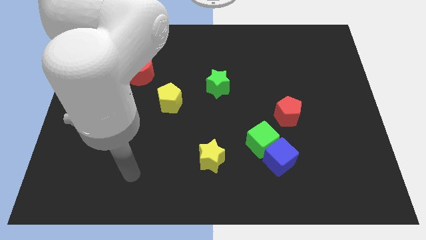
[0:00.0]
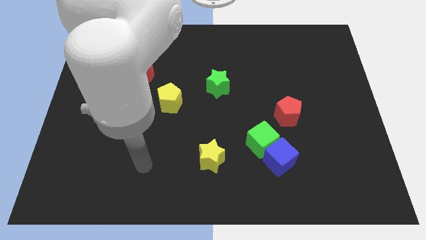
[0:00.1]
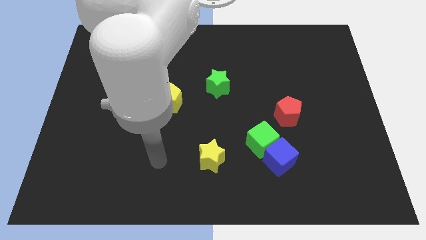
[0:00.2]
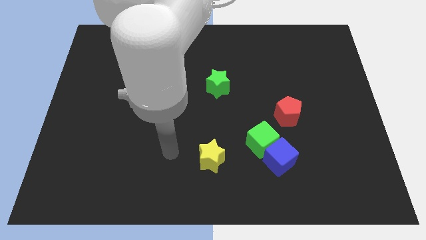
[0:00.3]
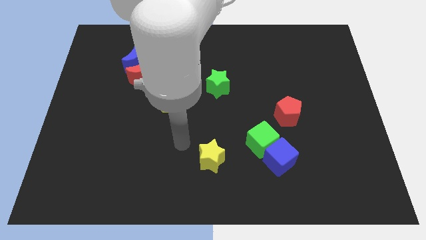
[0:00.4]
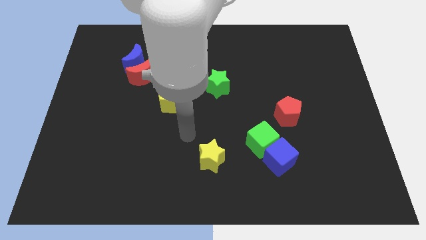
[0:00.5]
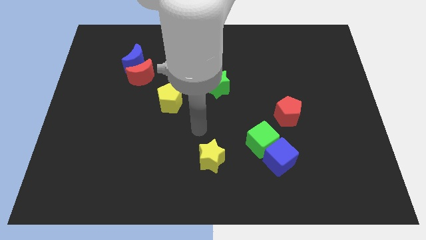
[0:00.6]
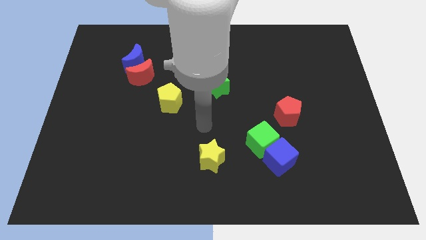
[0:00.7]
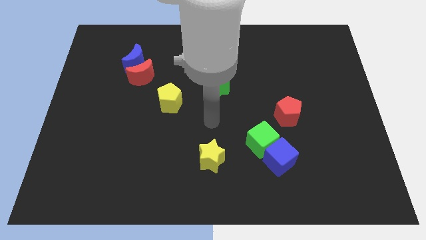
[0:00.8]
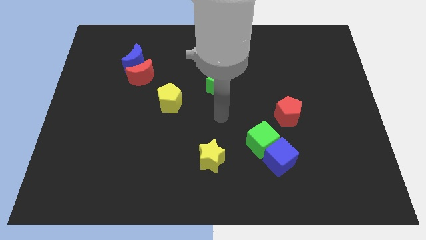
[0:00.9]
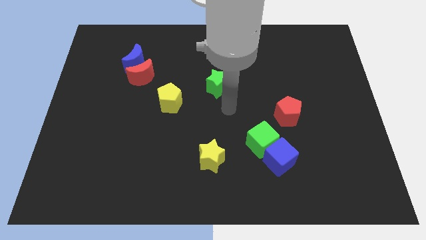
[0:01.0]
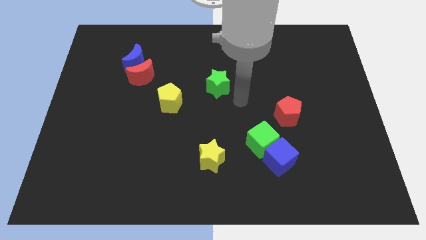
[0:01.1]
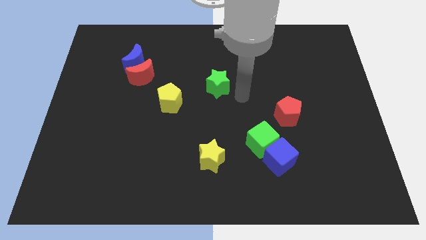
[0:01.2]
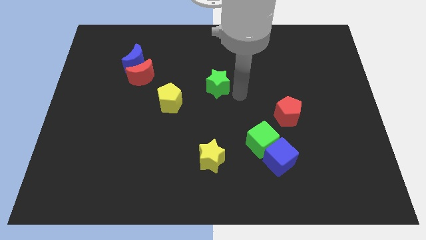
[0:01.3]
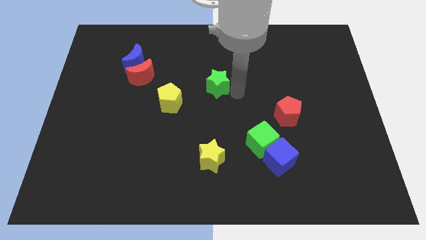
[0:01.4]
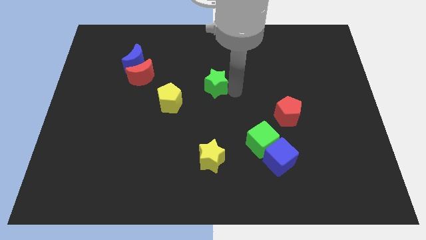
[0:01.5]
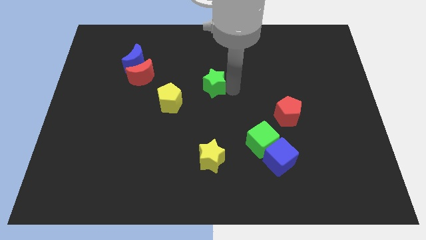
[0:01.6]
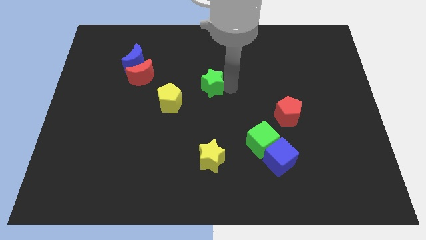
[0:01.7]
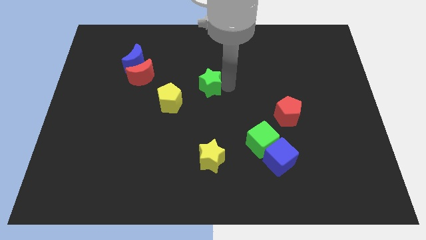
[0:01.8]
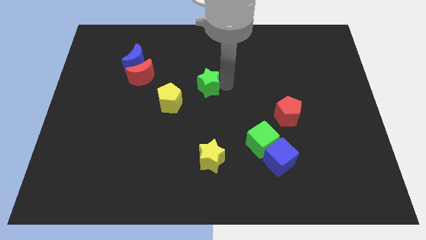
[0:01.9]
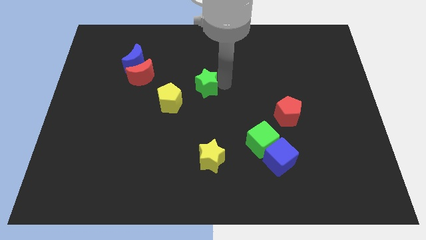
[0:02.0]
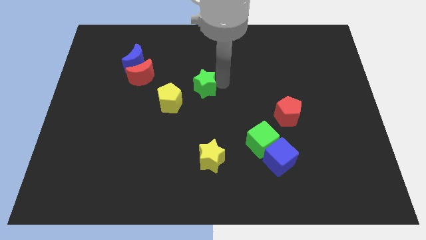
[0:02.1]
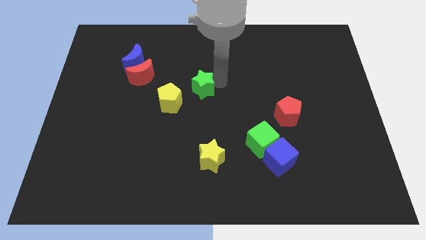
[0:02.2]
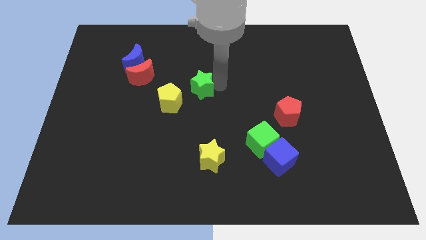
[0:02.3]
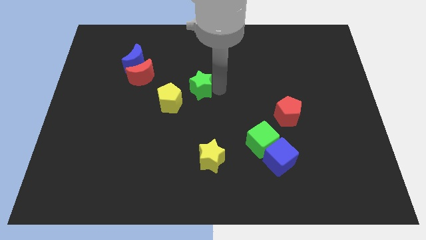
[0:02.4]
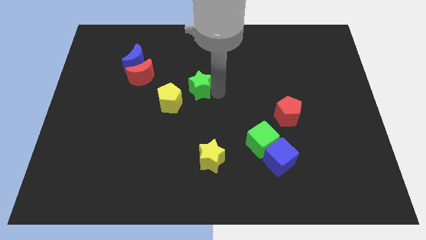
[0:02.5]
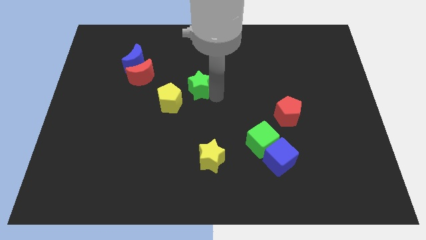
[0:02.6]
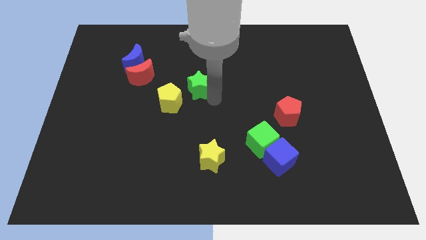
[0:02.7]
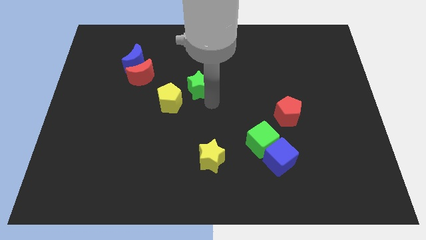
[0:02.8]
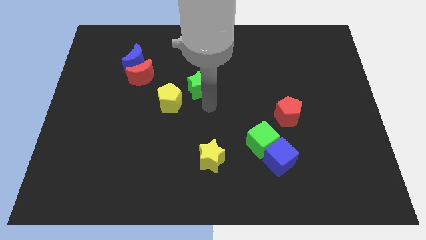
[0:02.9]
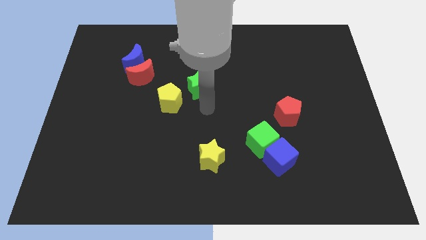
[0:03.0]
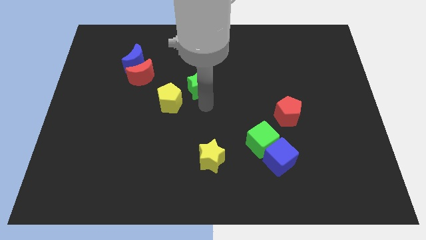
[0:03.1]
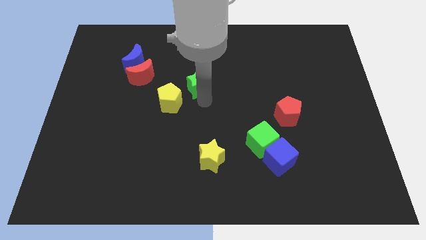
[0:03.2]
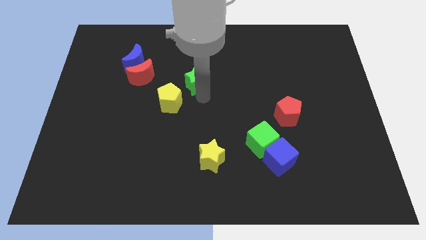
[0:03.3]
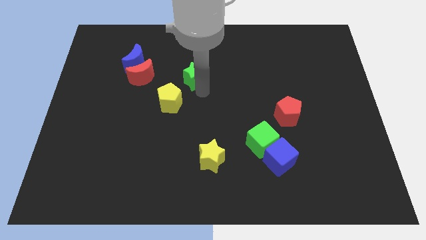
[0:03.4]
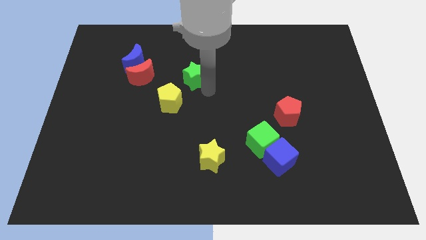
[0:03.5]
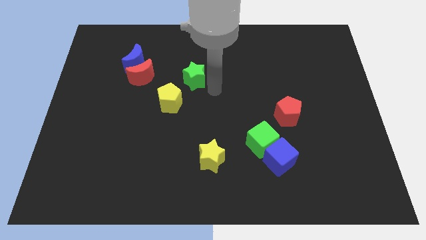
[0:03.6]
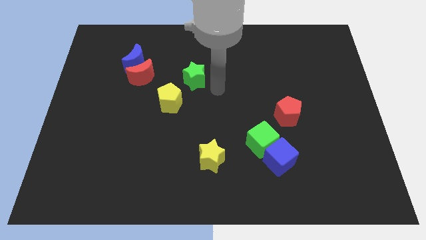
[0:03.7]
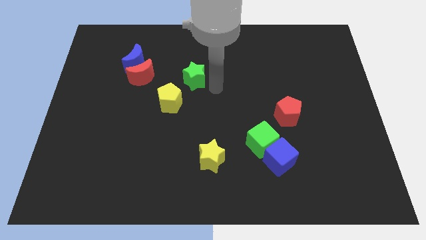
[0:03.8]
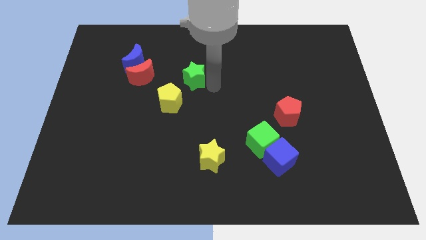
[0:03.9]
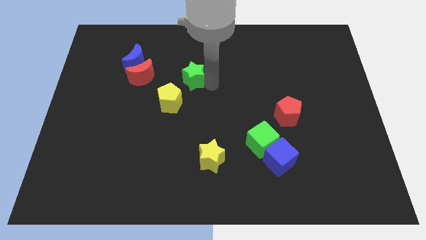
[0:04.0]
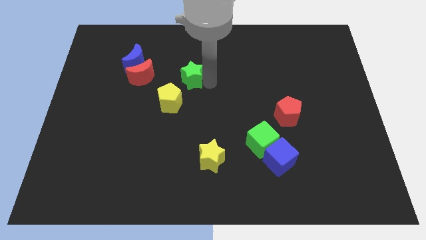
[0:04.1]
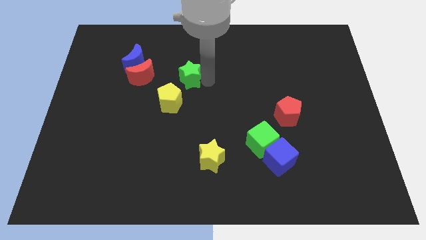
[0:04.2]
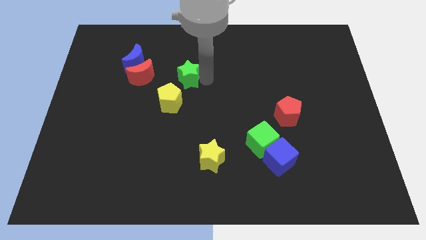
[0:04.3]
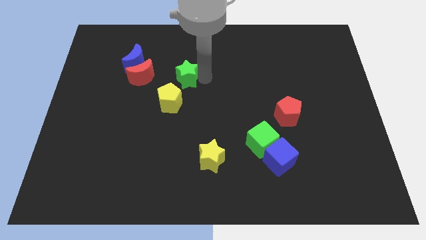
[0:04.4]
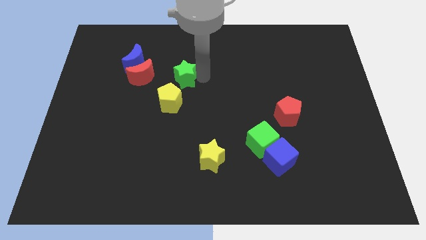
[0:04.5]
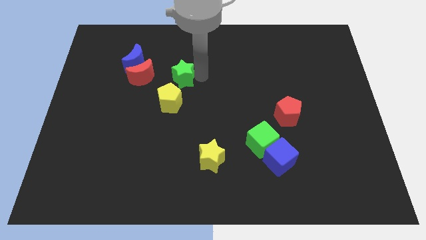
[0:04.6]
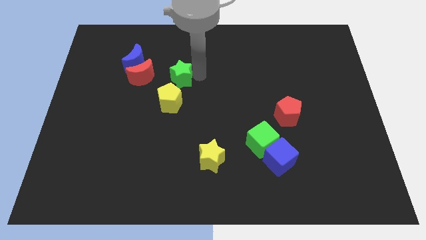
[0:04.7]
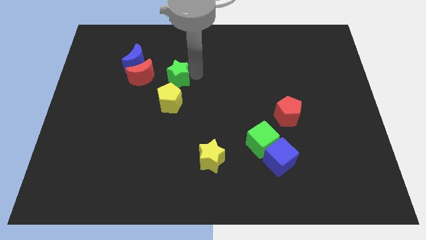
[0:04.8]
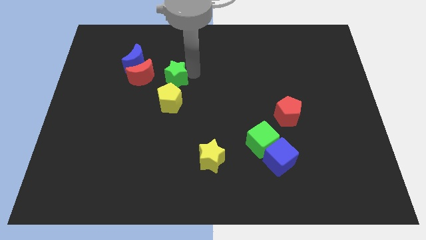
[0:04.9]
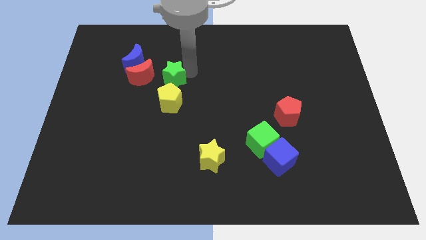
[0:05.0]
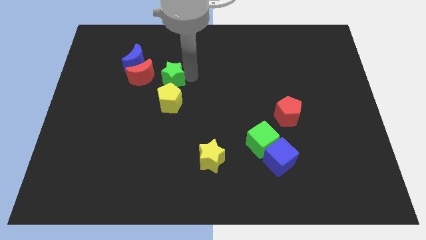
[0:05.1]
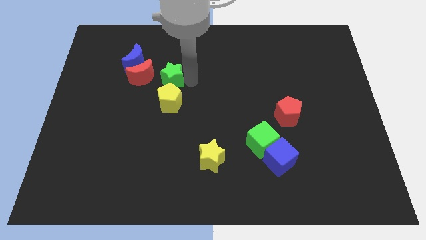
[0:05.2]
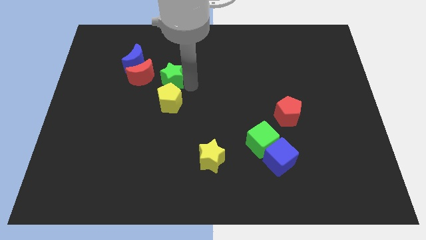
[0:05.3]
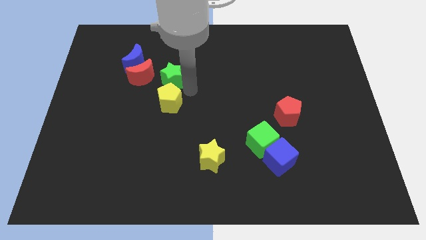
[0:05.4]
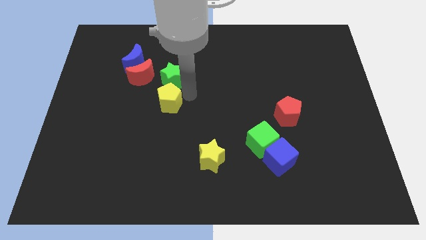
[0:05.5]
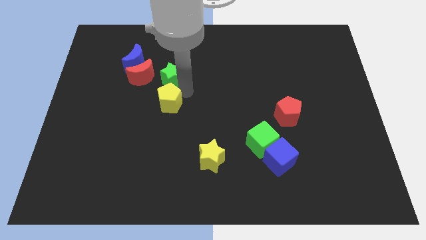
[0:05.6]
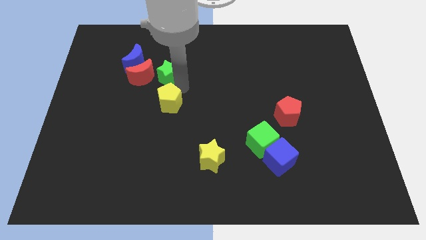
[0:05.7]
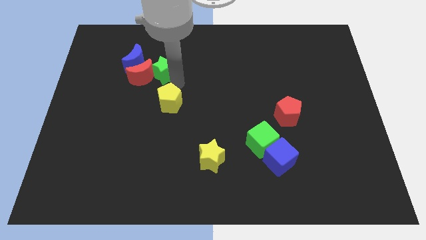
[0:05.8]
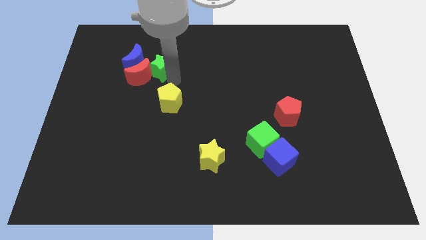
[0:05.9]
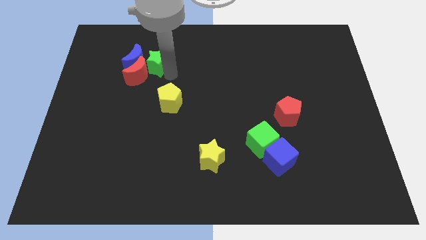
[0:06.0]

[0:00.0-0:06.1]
put the green star close to the blue moon
